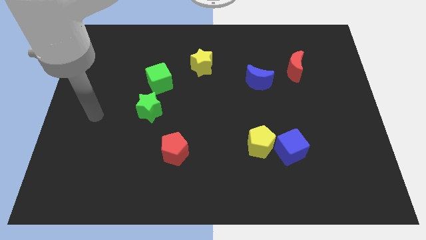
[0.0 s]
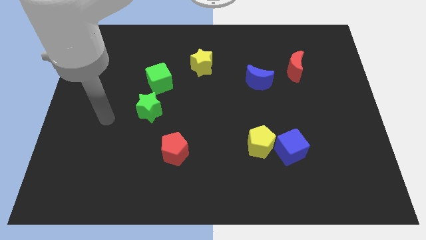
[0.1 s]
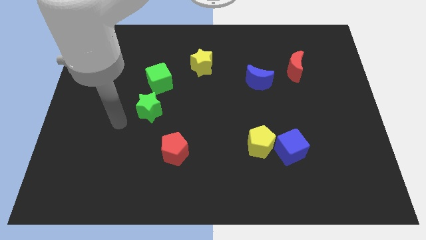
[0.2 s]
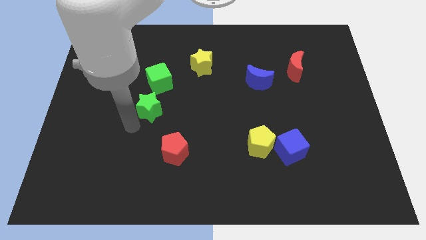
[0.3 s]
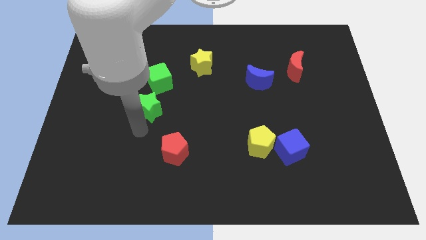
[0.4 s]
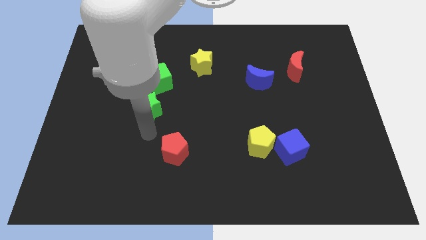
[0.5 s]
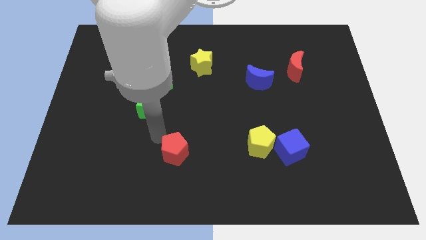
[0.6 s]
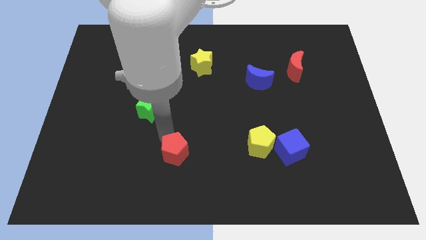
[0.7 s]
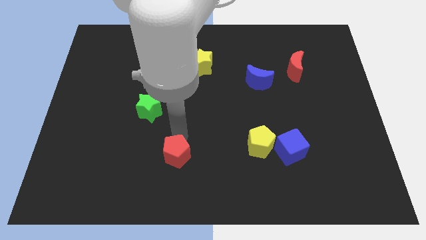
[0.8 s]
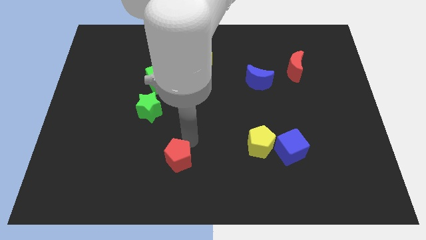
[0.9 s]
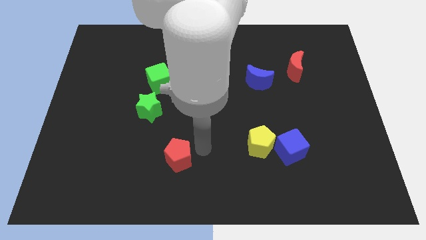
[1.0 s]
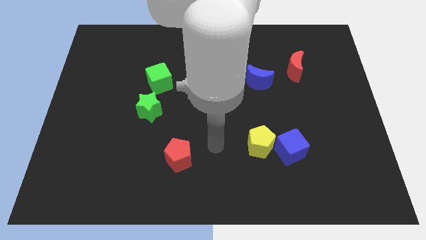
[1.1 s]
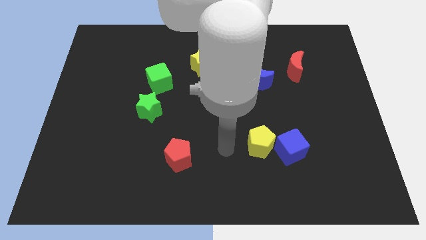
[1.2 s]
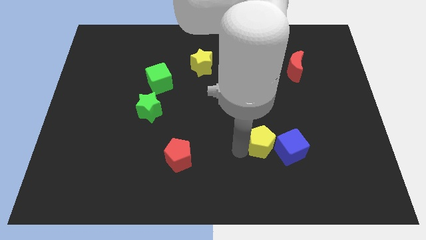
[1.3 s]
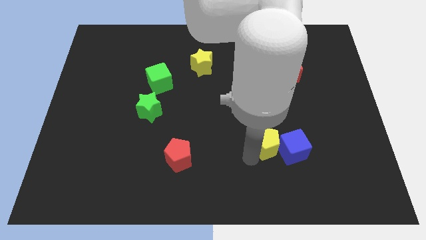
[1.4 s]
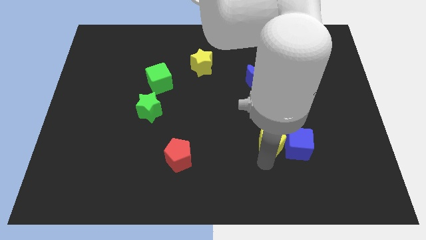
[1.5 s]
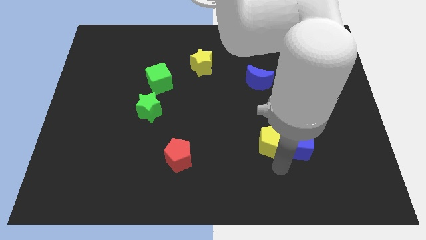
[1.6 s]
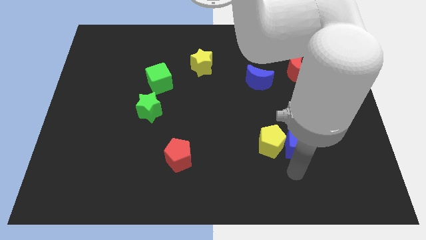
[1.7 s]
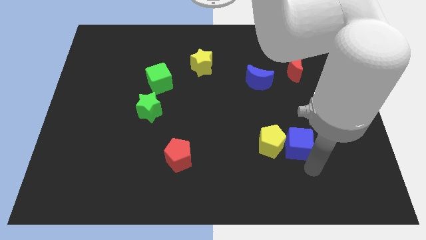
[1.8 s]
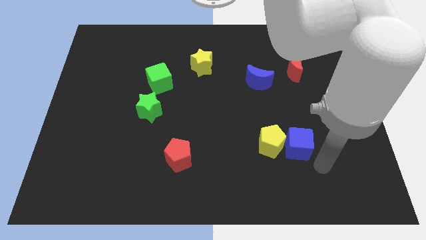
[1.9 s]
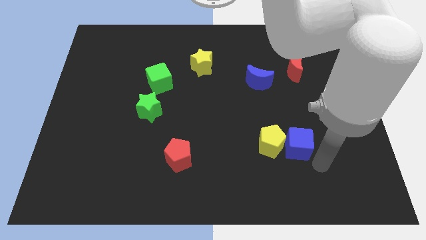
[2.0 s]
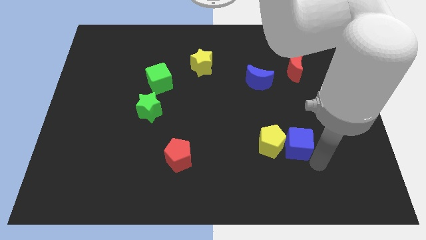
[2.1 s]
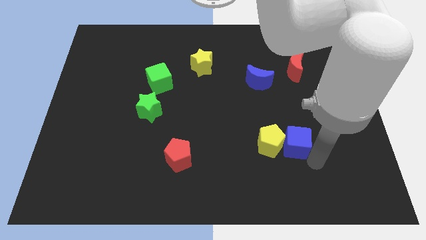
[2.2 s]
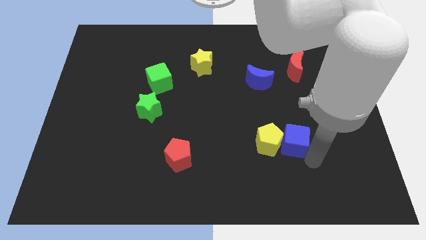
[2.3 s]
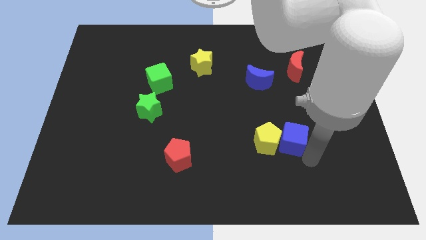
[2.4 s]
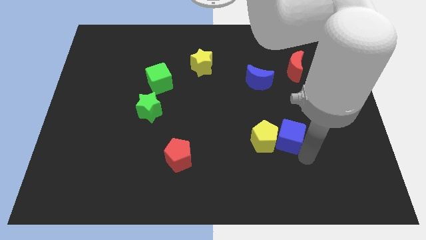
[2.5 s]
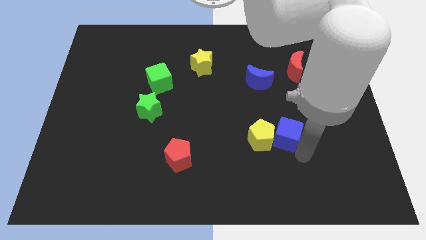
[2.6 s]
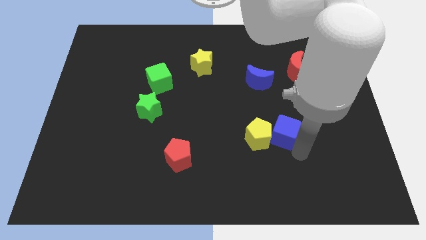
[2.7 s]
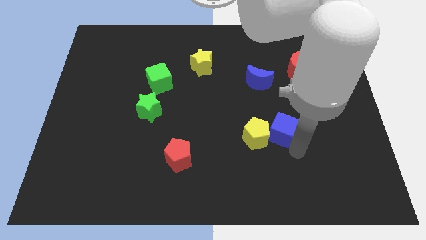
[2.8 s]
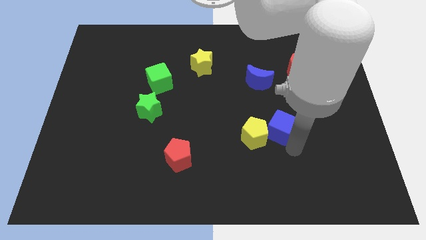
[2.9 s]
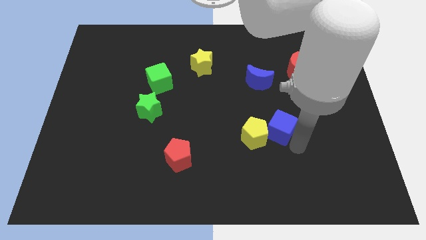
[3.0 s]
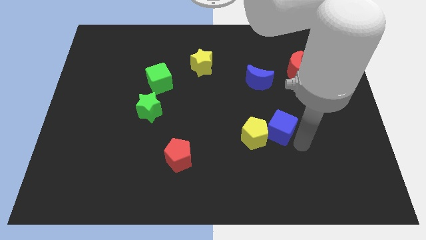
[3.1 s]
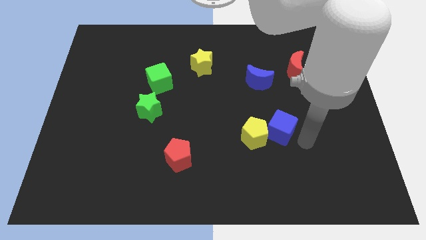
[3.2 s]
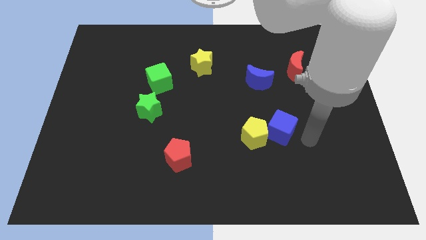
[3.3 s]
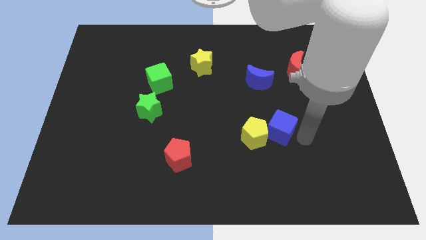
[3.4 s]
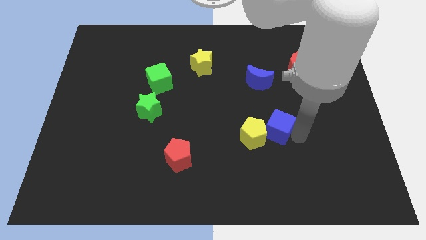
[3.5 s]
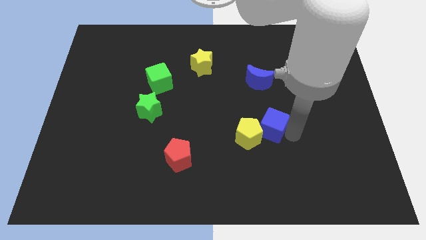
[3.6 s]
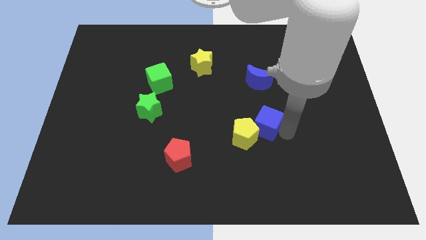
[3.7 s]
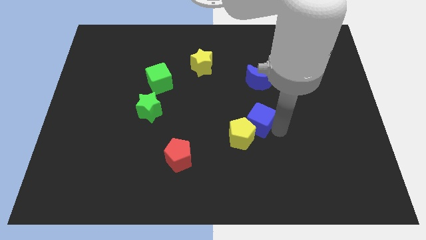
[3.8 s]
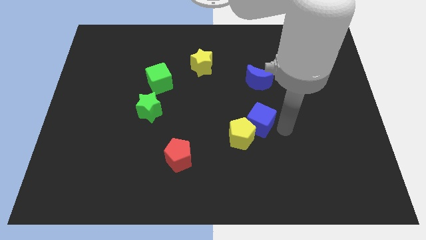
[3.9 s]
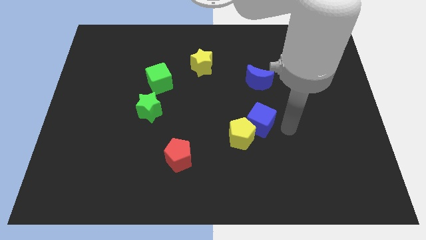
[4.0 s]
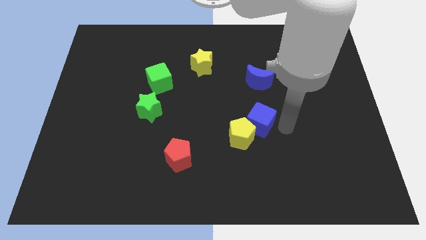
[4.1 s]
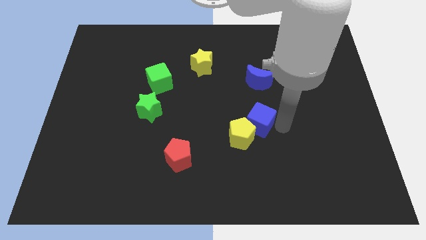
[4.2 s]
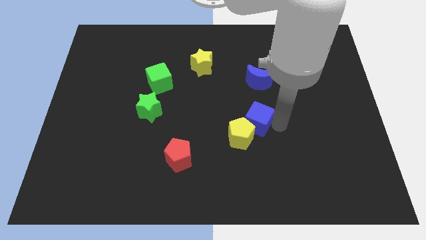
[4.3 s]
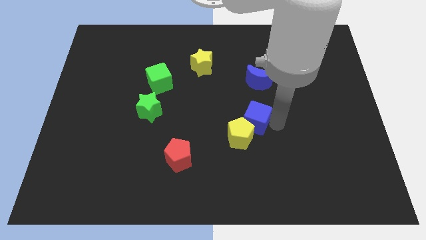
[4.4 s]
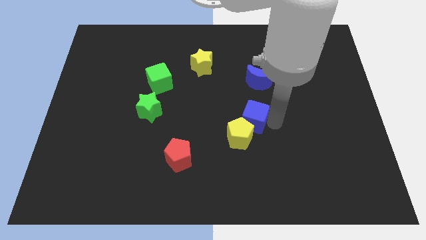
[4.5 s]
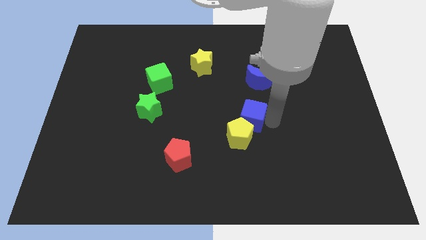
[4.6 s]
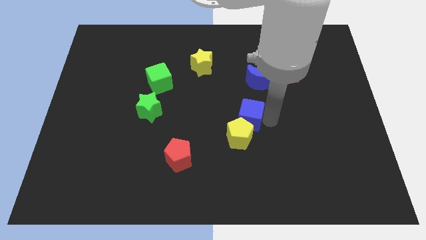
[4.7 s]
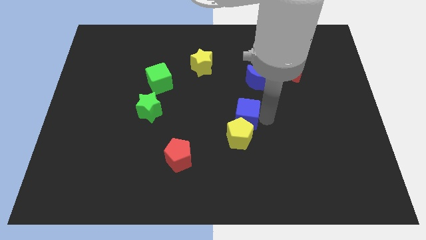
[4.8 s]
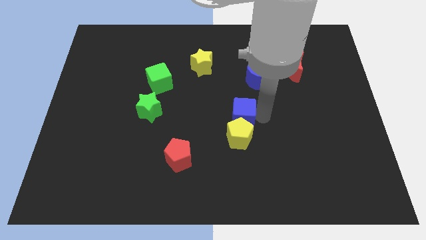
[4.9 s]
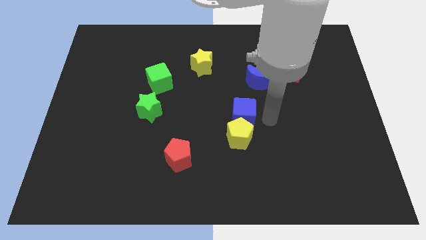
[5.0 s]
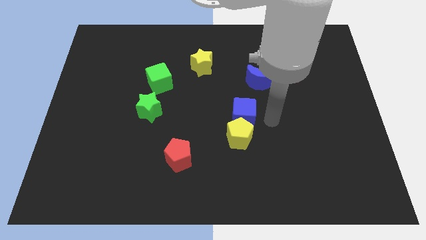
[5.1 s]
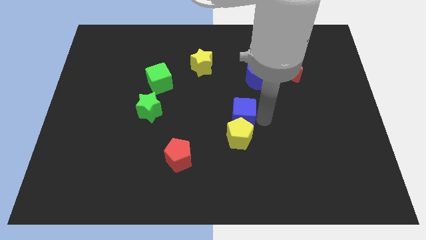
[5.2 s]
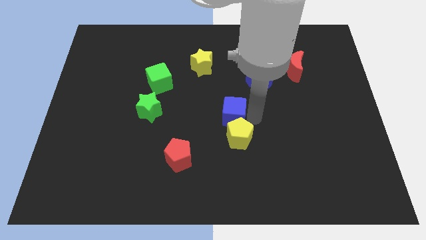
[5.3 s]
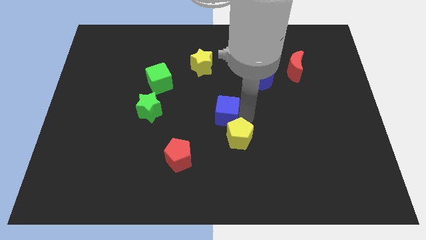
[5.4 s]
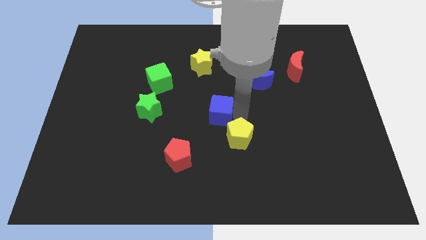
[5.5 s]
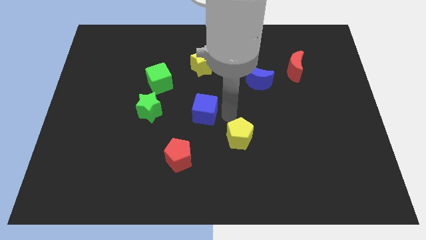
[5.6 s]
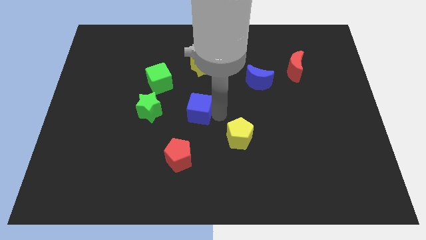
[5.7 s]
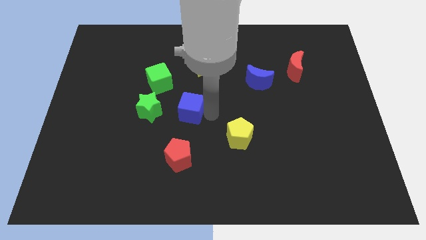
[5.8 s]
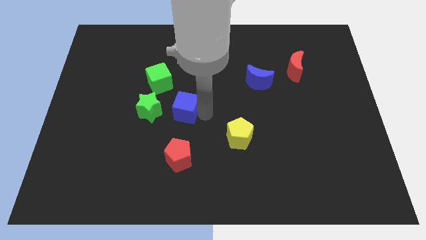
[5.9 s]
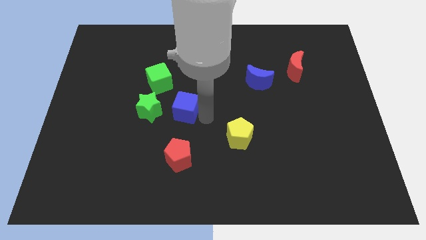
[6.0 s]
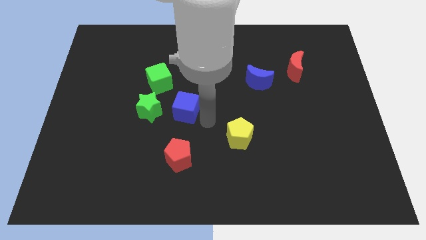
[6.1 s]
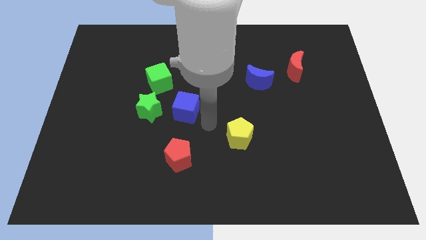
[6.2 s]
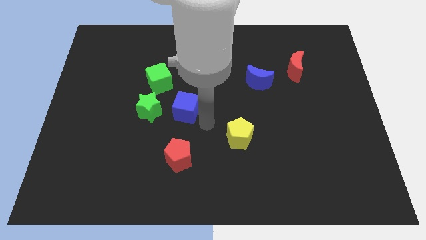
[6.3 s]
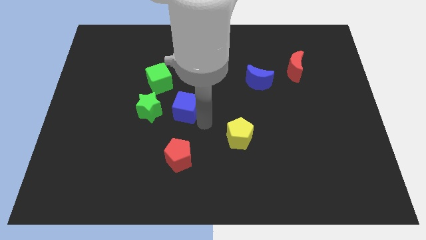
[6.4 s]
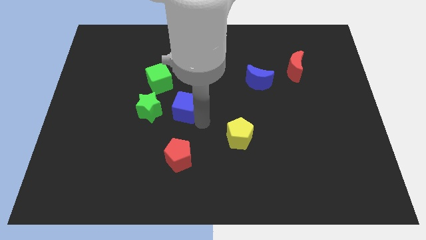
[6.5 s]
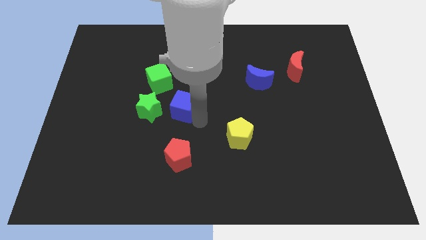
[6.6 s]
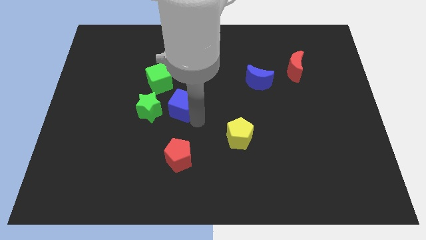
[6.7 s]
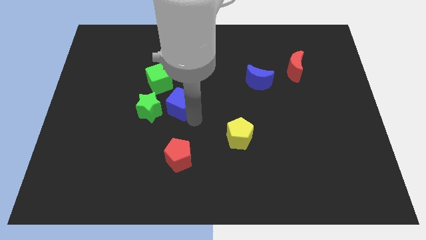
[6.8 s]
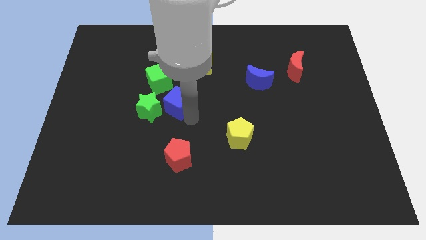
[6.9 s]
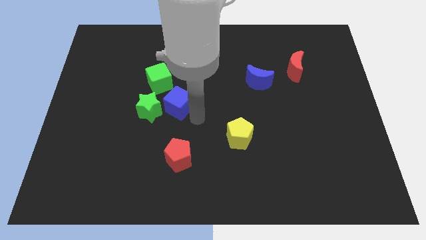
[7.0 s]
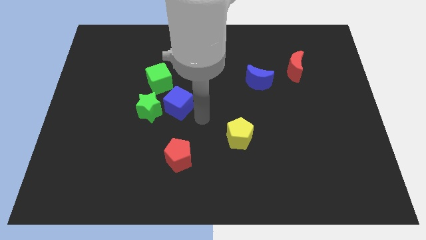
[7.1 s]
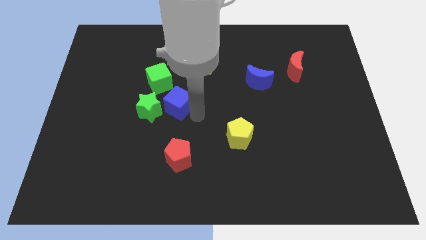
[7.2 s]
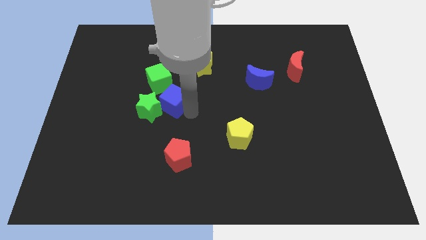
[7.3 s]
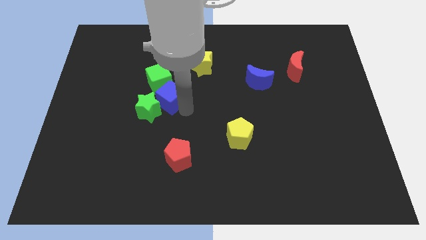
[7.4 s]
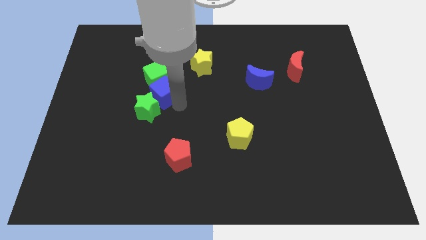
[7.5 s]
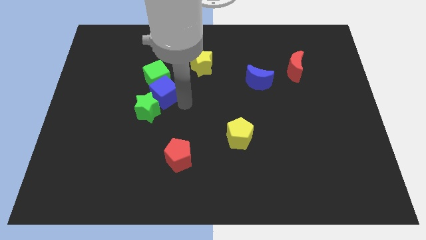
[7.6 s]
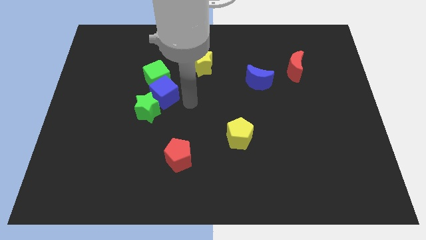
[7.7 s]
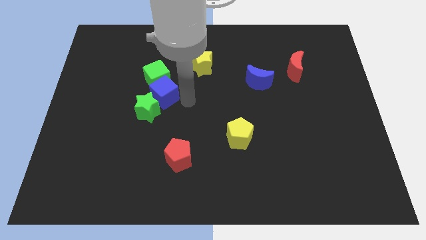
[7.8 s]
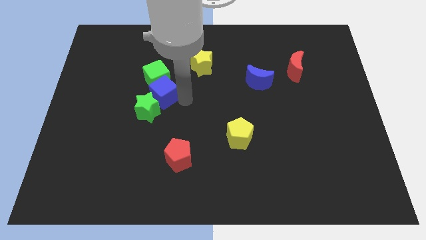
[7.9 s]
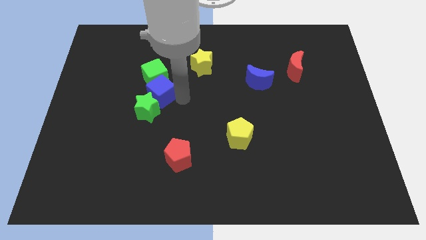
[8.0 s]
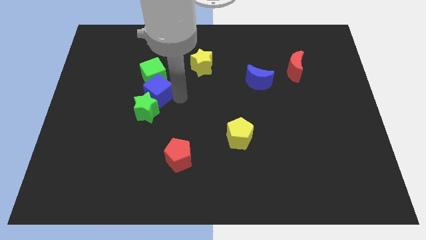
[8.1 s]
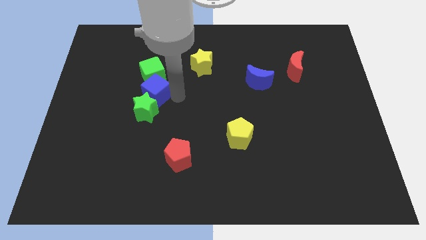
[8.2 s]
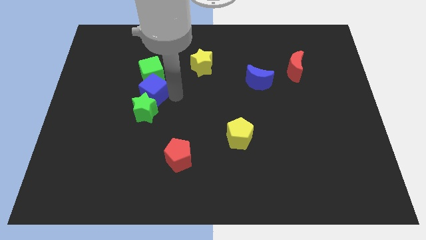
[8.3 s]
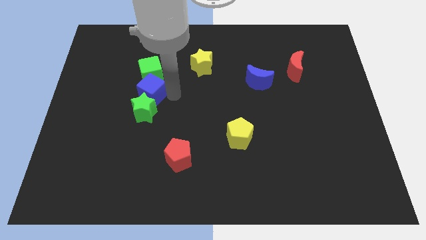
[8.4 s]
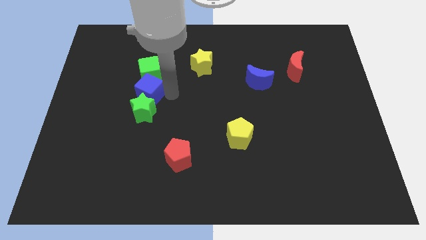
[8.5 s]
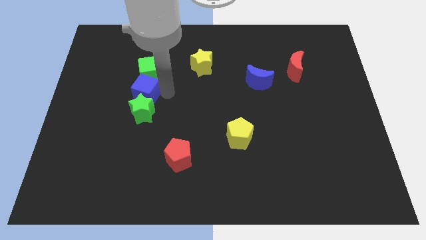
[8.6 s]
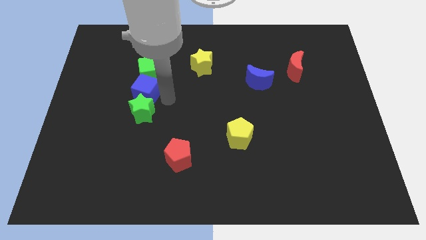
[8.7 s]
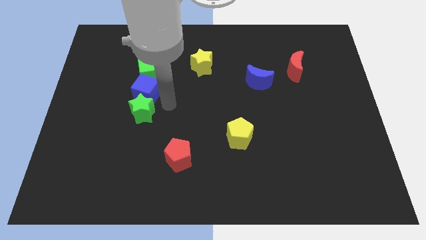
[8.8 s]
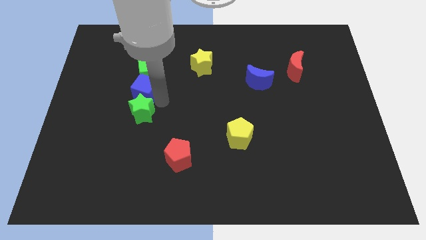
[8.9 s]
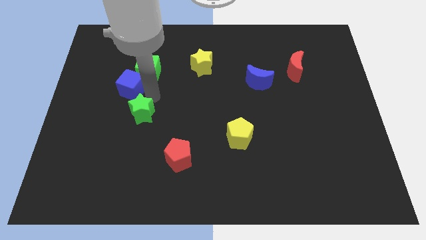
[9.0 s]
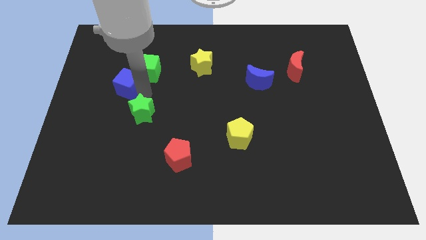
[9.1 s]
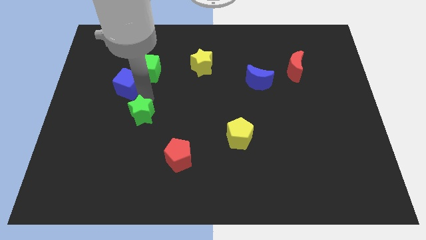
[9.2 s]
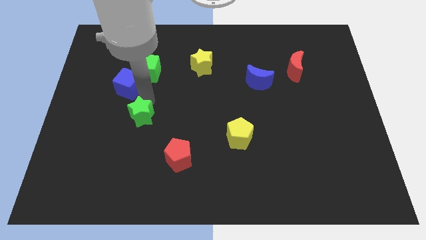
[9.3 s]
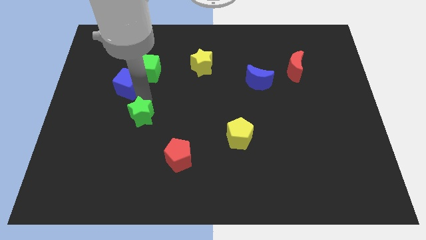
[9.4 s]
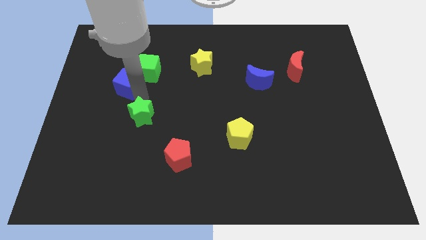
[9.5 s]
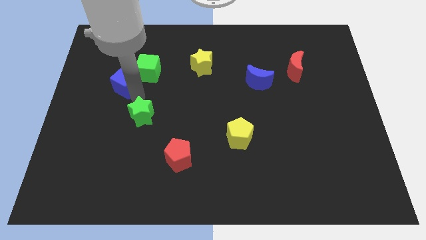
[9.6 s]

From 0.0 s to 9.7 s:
put the blue cube to the left side of the green cube
